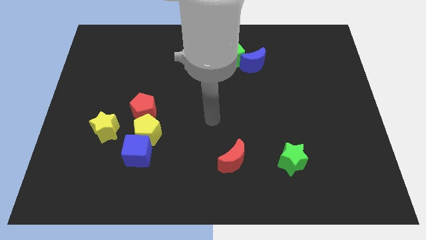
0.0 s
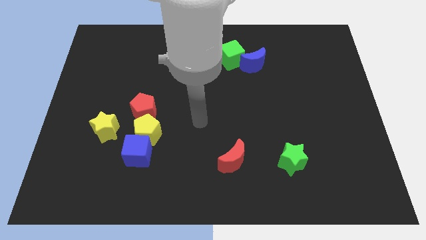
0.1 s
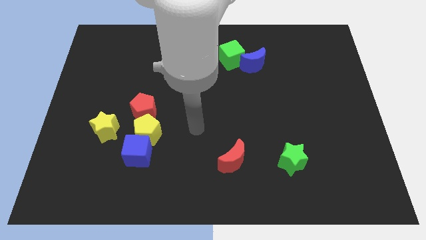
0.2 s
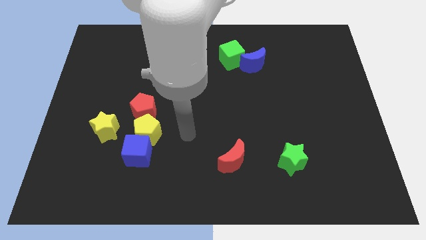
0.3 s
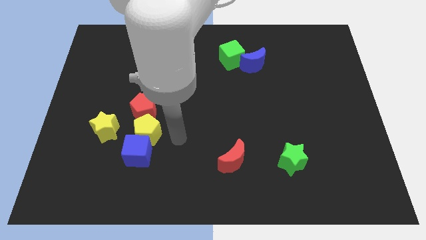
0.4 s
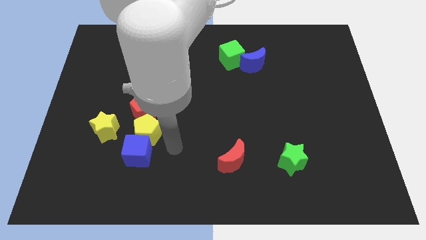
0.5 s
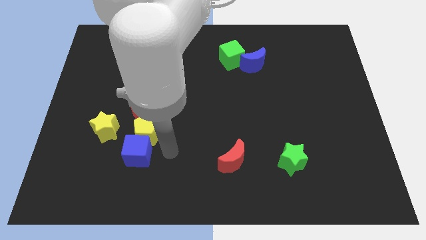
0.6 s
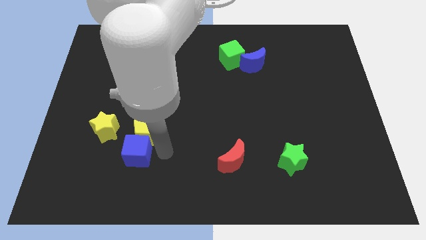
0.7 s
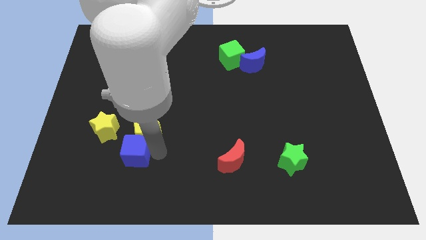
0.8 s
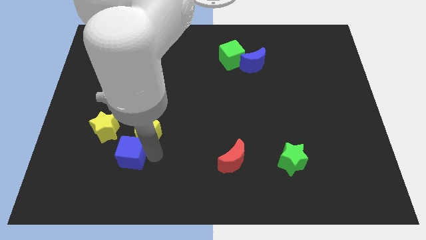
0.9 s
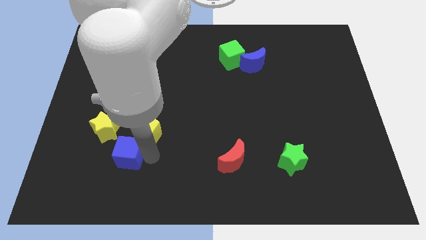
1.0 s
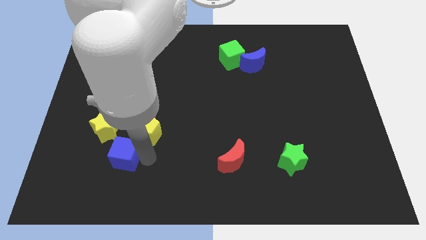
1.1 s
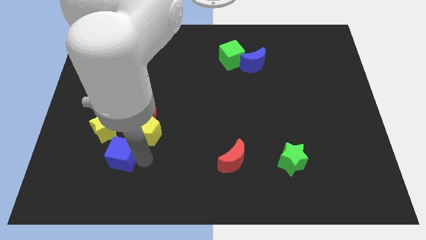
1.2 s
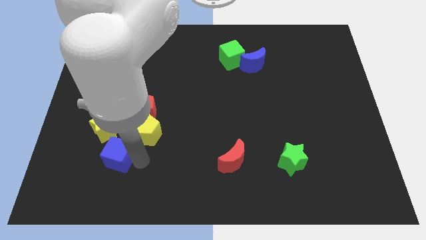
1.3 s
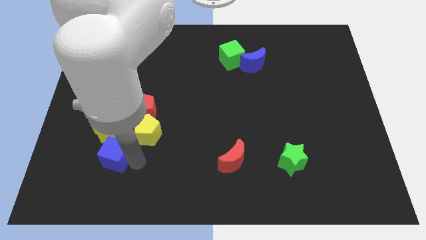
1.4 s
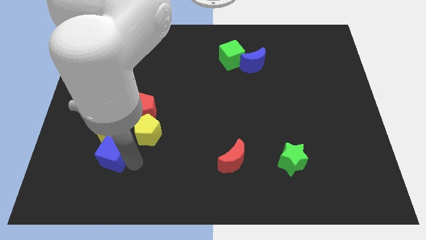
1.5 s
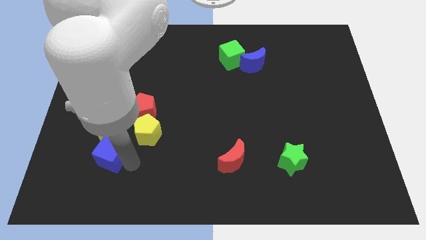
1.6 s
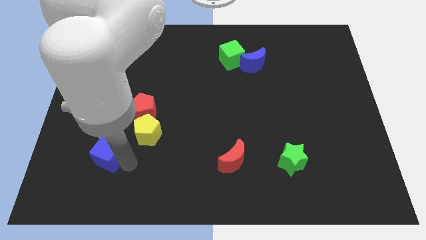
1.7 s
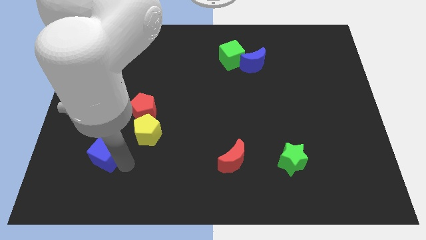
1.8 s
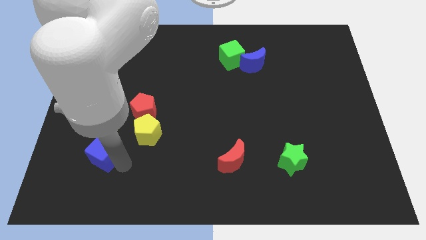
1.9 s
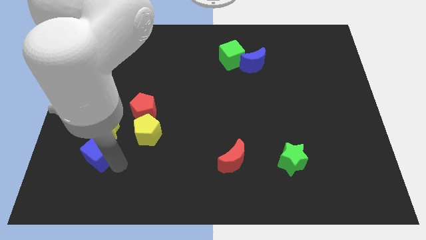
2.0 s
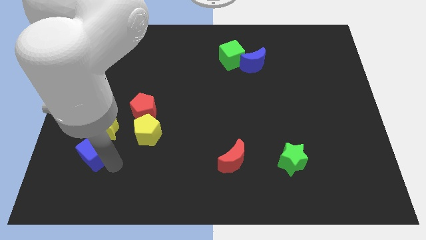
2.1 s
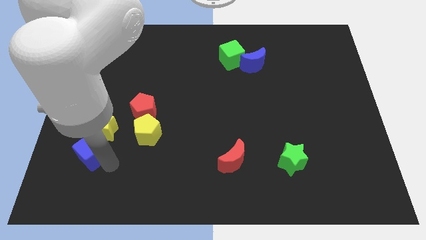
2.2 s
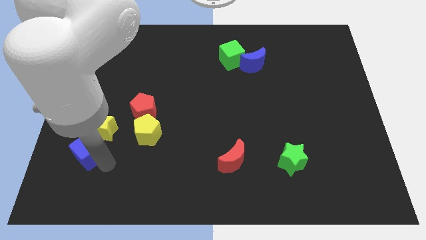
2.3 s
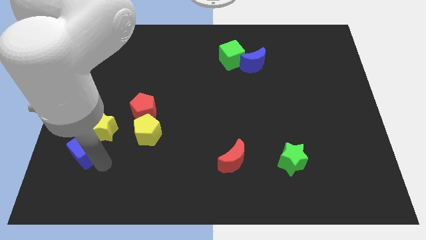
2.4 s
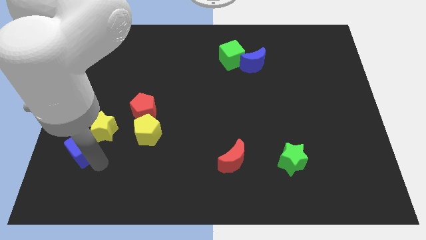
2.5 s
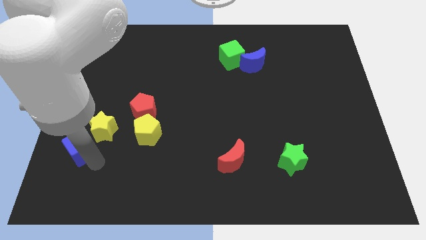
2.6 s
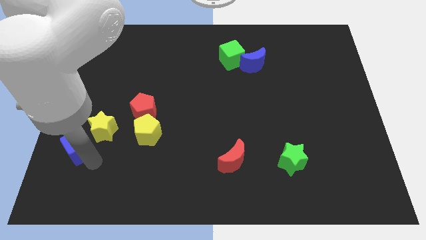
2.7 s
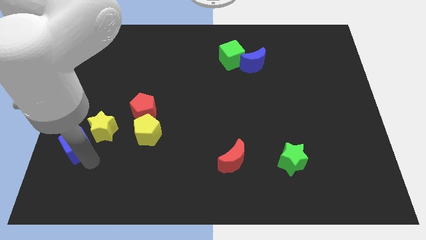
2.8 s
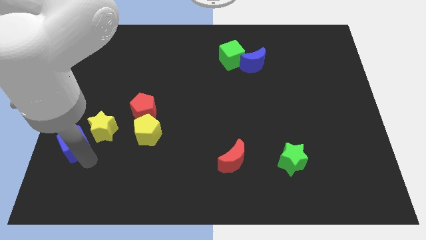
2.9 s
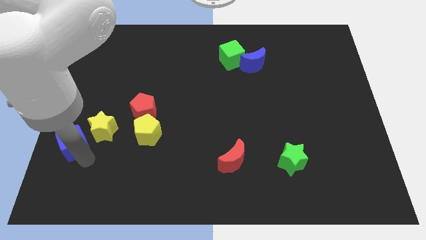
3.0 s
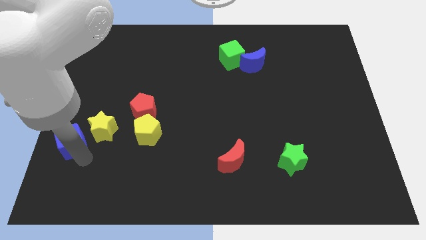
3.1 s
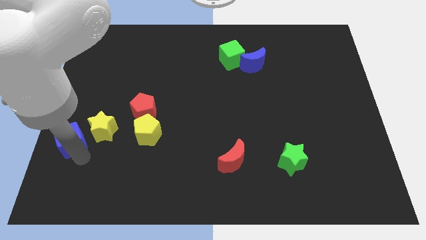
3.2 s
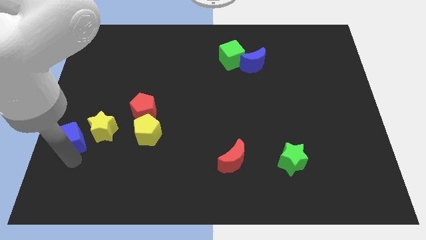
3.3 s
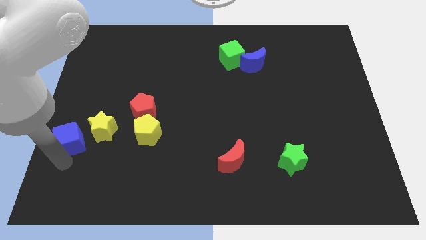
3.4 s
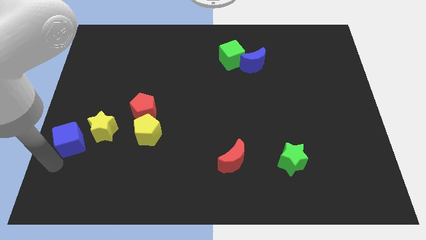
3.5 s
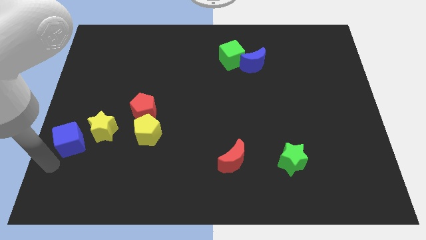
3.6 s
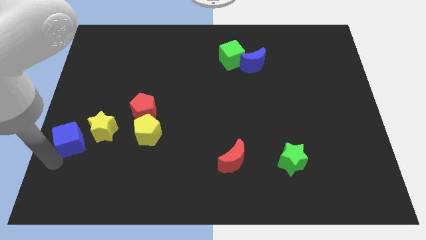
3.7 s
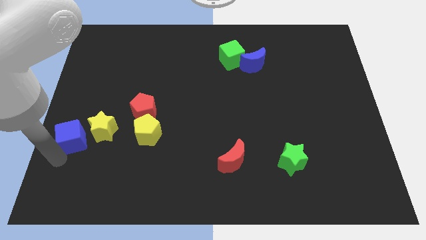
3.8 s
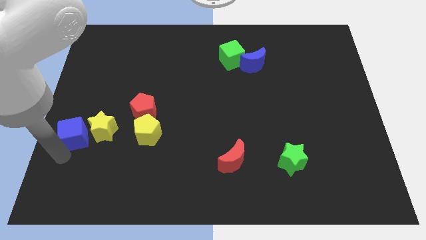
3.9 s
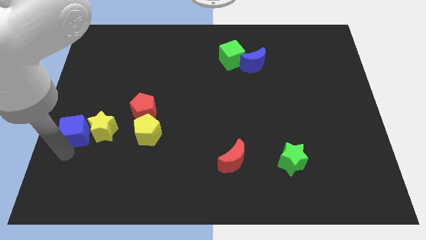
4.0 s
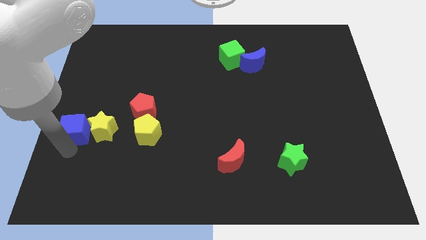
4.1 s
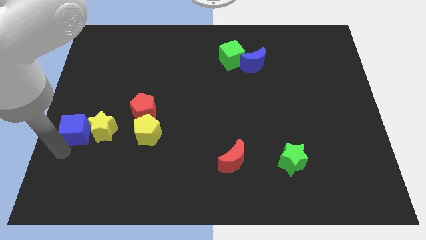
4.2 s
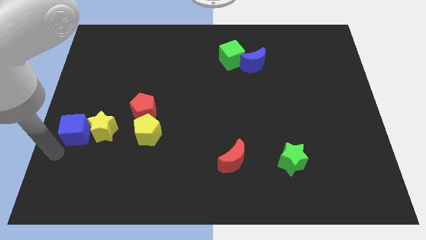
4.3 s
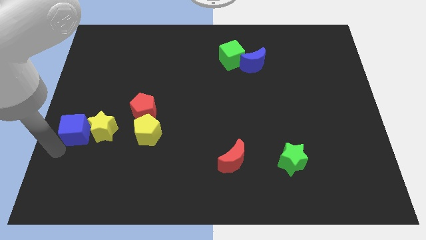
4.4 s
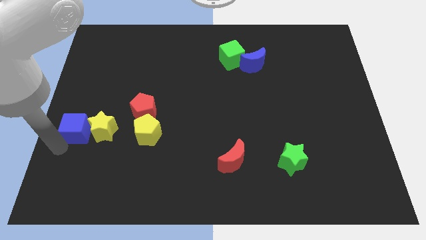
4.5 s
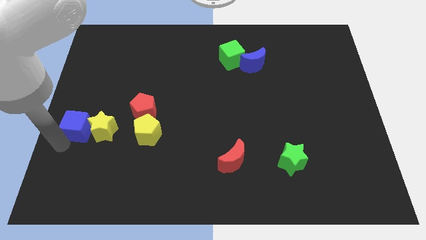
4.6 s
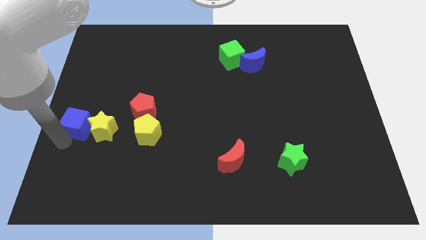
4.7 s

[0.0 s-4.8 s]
push the blue cube to the left of the red pentagon

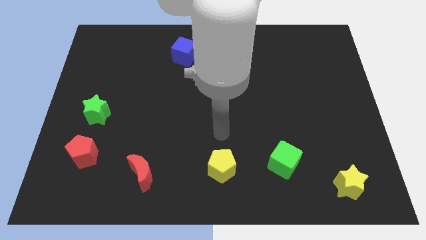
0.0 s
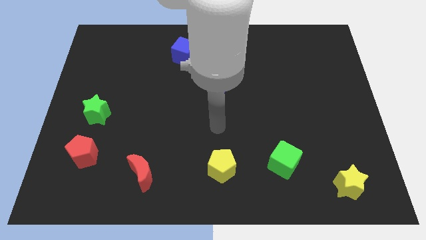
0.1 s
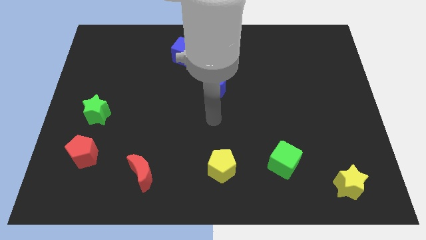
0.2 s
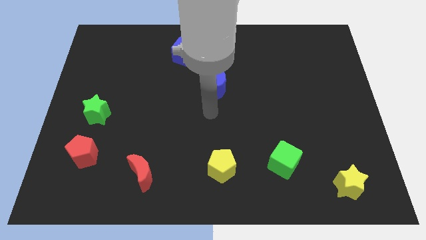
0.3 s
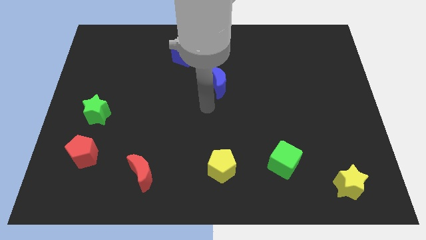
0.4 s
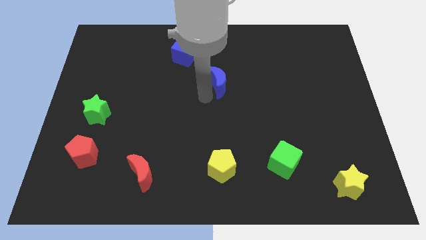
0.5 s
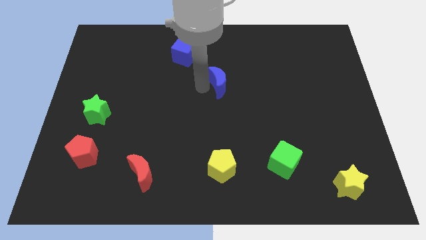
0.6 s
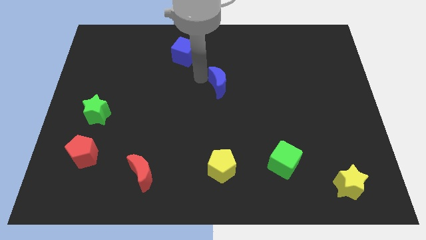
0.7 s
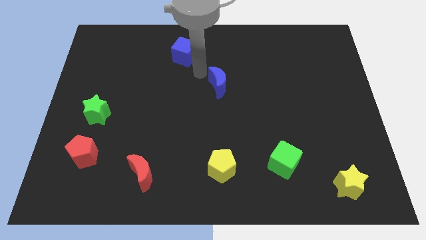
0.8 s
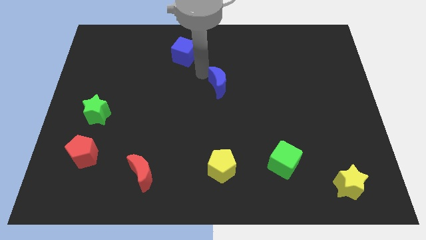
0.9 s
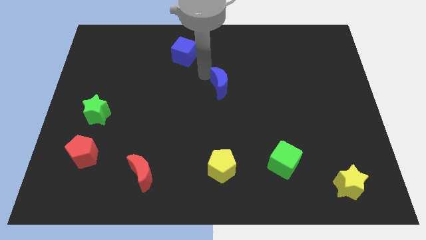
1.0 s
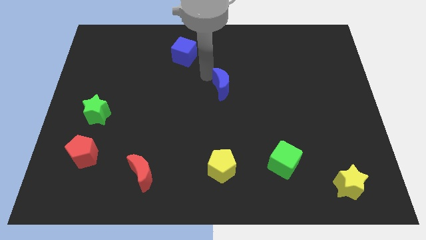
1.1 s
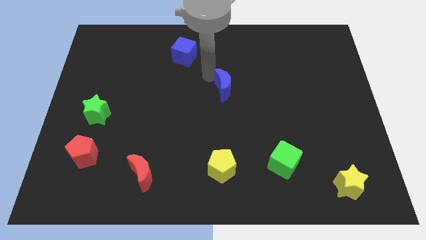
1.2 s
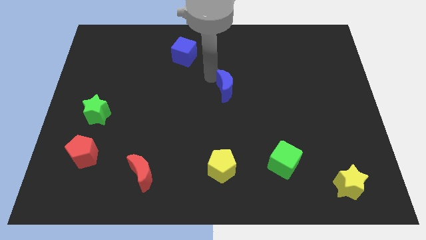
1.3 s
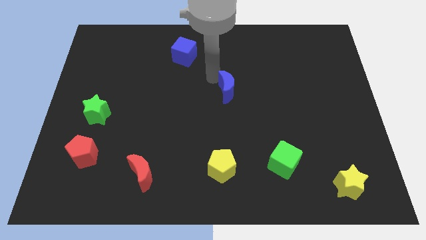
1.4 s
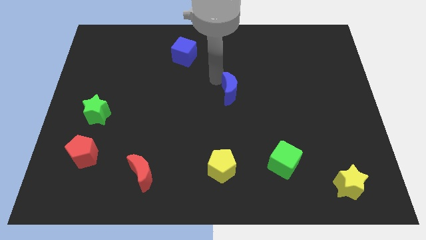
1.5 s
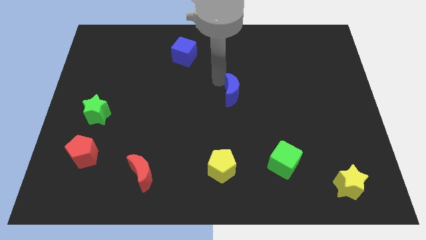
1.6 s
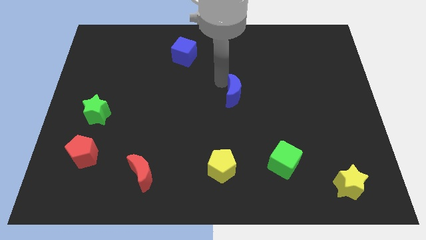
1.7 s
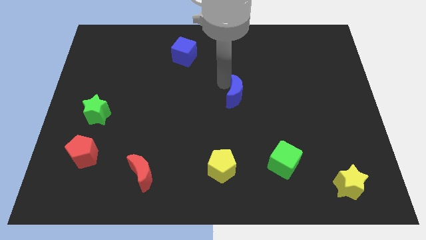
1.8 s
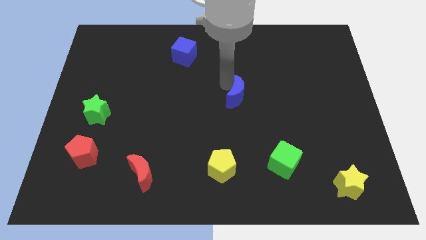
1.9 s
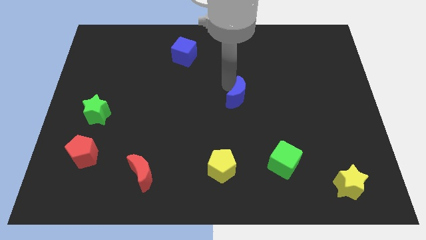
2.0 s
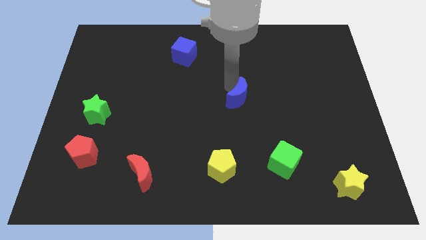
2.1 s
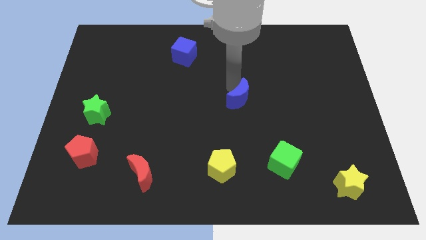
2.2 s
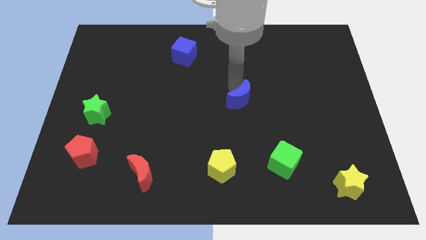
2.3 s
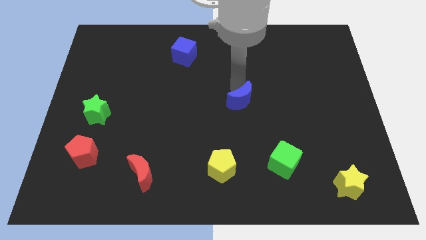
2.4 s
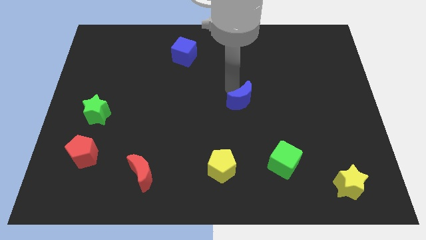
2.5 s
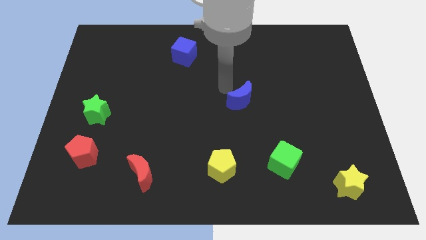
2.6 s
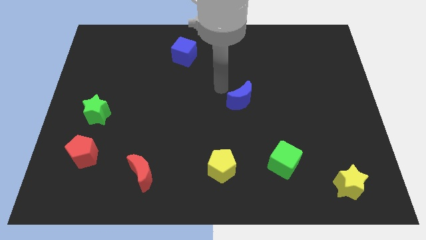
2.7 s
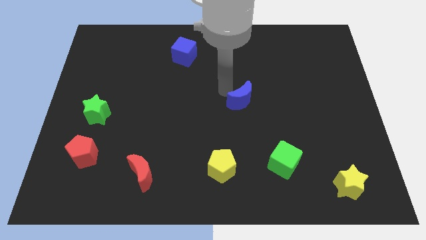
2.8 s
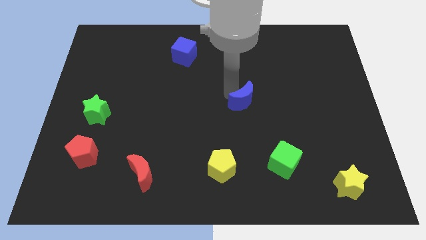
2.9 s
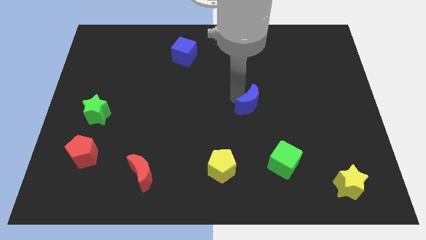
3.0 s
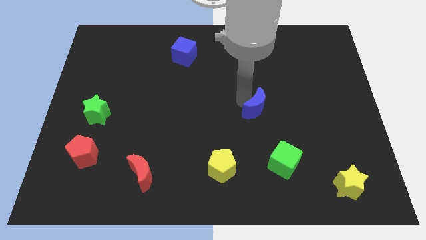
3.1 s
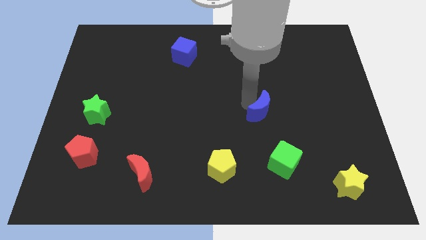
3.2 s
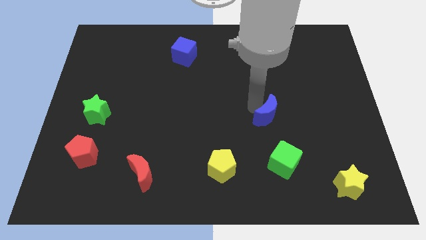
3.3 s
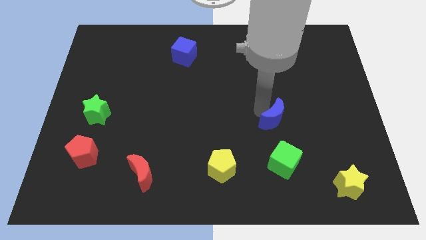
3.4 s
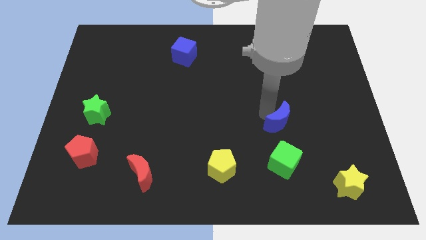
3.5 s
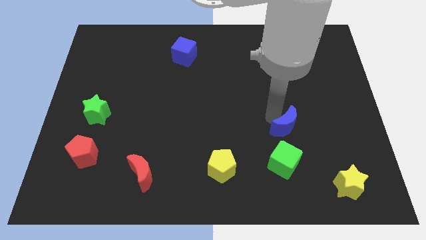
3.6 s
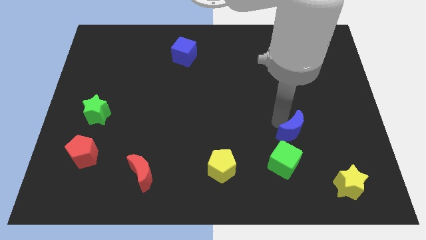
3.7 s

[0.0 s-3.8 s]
slide the blue moon to the top right of the green cube
